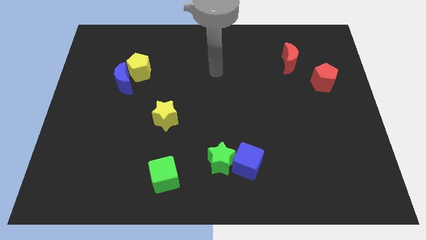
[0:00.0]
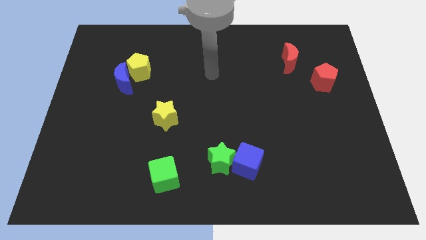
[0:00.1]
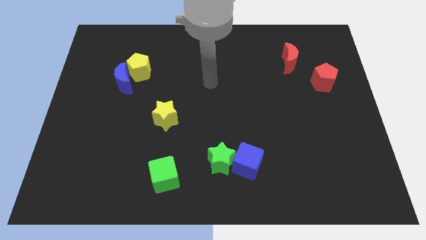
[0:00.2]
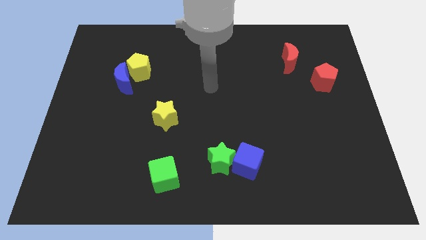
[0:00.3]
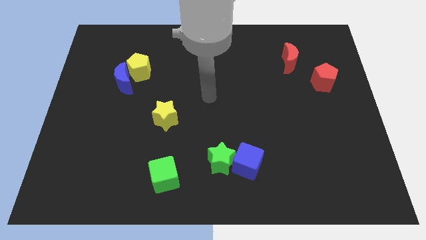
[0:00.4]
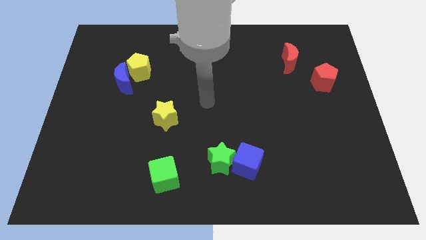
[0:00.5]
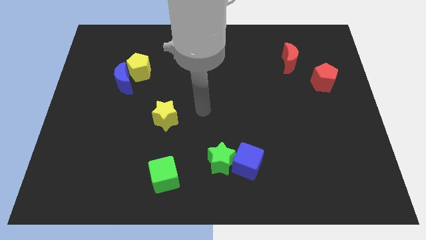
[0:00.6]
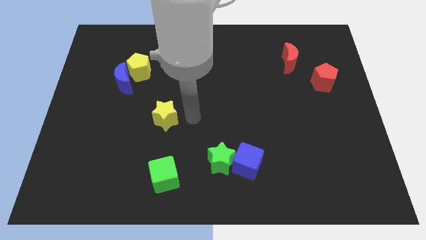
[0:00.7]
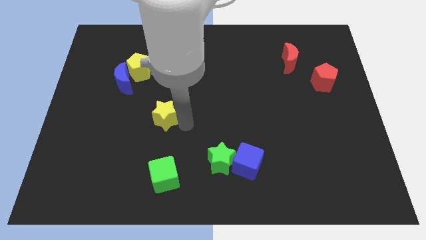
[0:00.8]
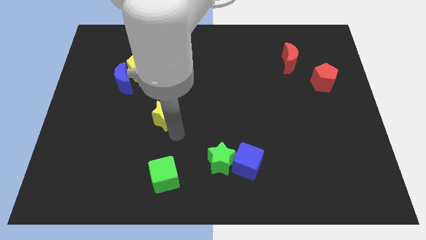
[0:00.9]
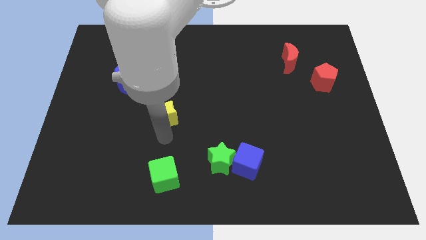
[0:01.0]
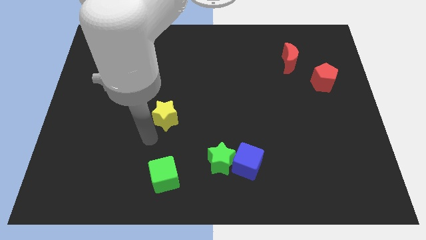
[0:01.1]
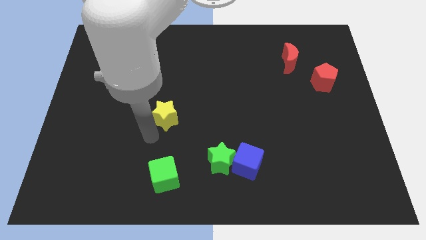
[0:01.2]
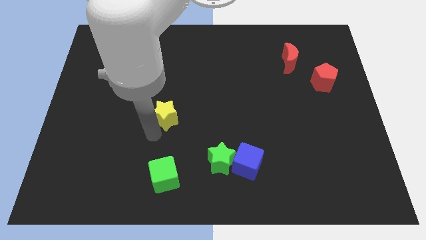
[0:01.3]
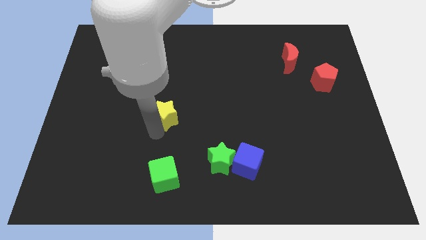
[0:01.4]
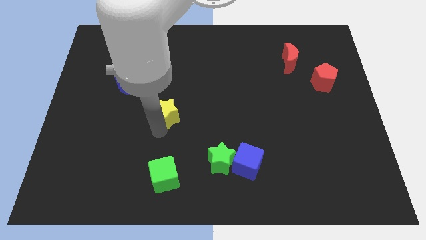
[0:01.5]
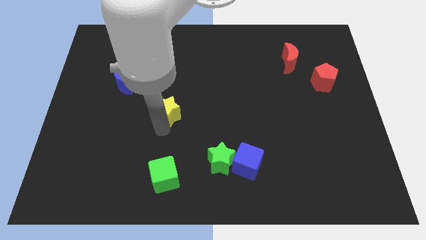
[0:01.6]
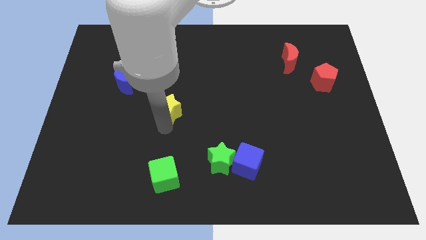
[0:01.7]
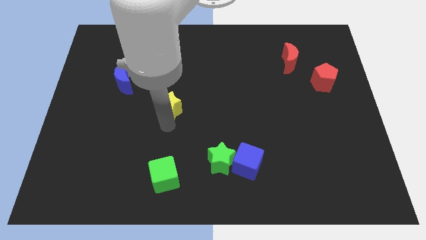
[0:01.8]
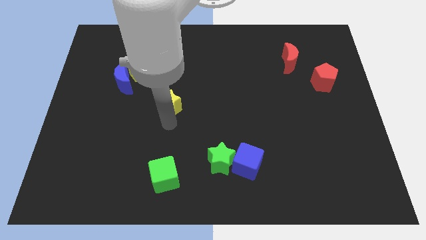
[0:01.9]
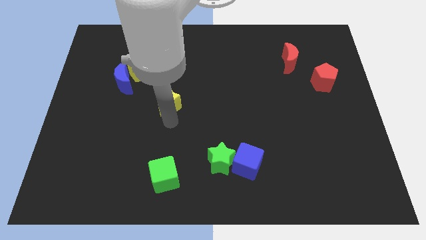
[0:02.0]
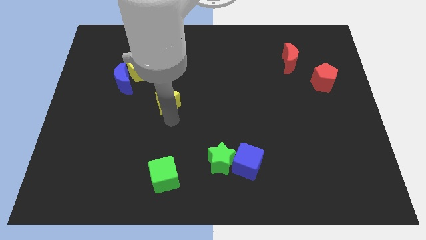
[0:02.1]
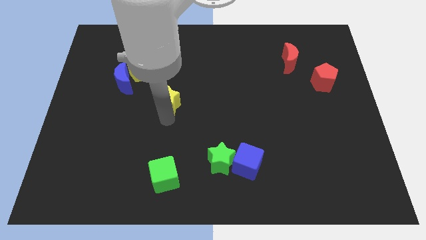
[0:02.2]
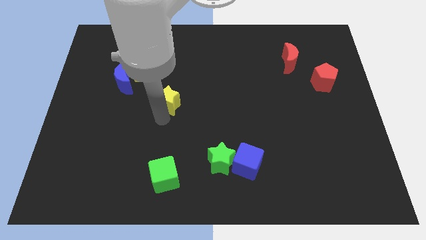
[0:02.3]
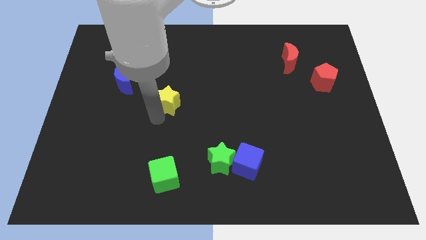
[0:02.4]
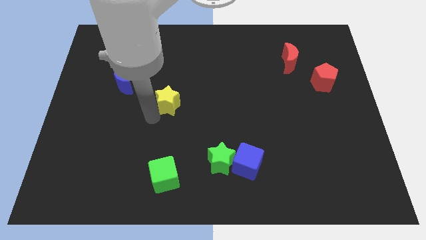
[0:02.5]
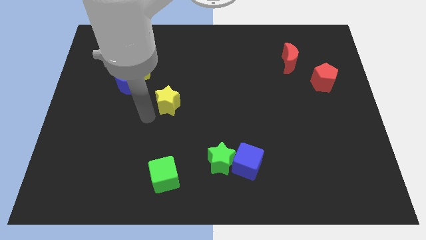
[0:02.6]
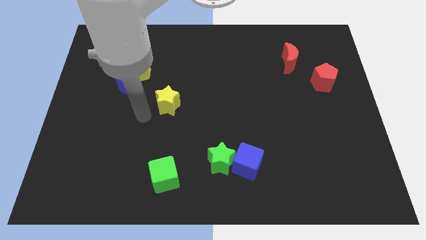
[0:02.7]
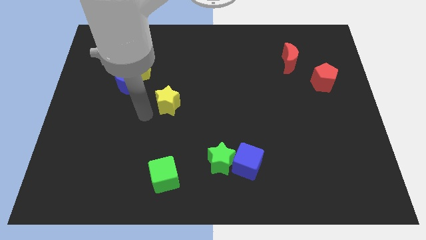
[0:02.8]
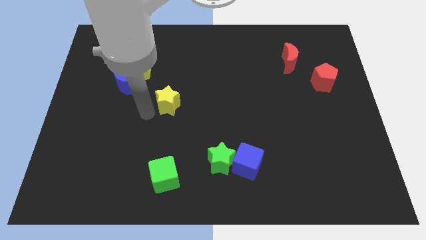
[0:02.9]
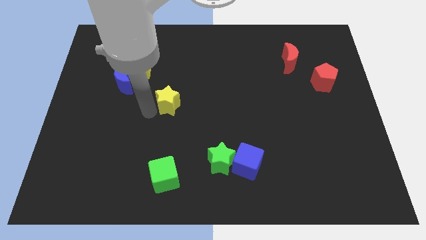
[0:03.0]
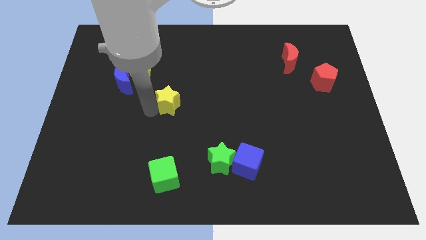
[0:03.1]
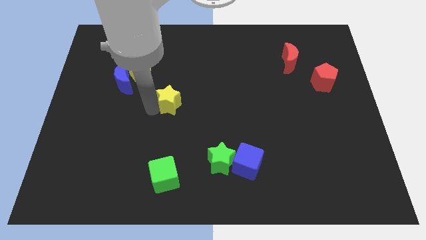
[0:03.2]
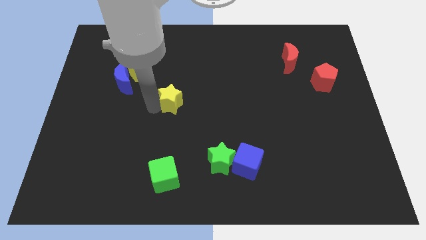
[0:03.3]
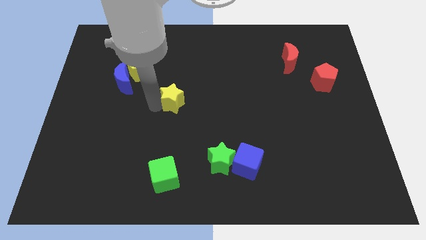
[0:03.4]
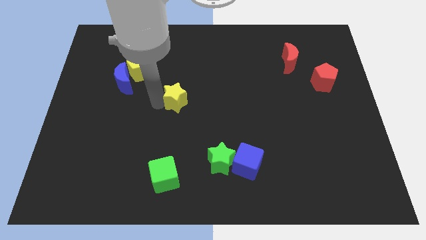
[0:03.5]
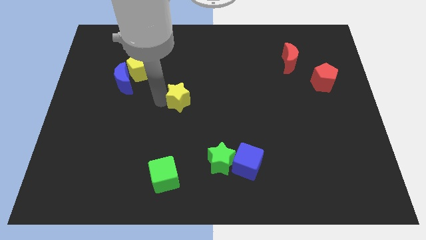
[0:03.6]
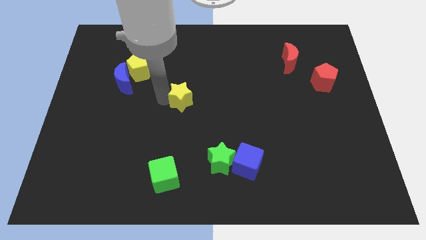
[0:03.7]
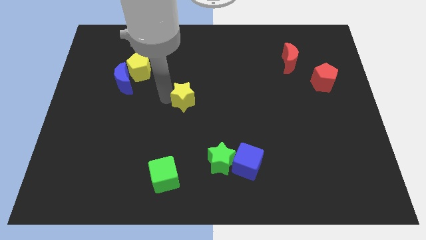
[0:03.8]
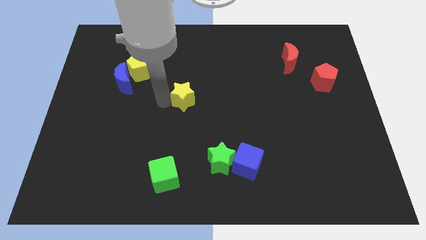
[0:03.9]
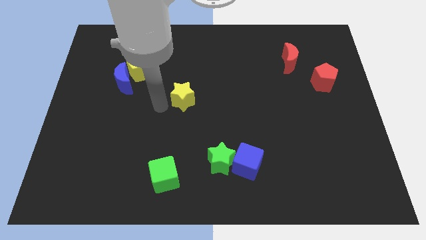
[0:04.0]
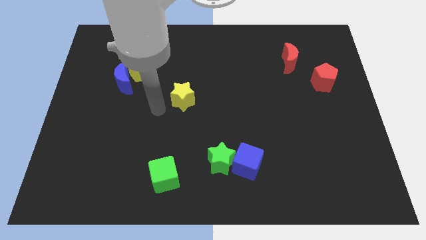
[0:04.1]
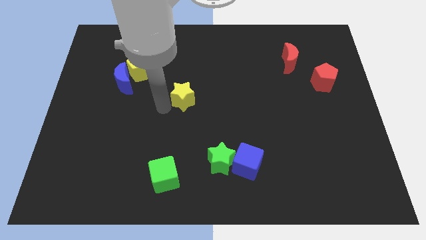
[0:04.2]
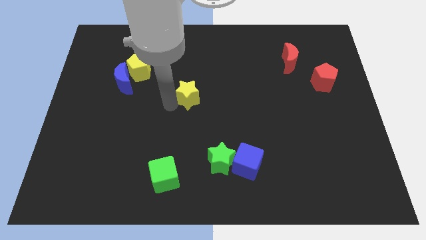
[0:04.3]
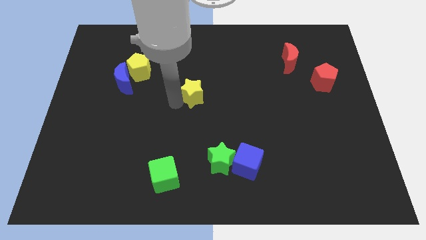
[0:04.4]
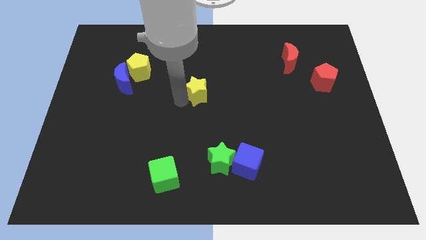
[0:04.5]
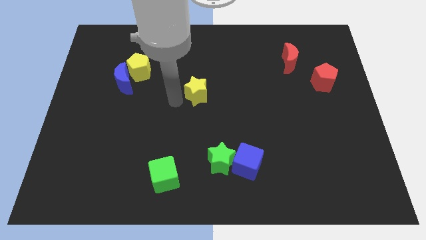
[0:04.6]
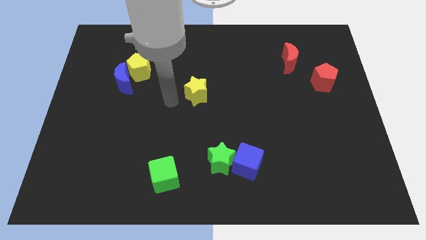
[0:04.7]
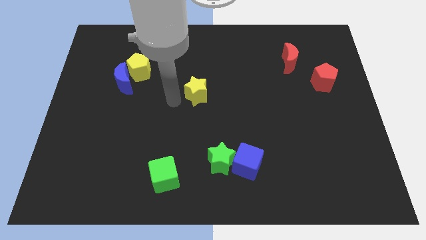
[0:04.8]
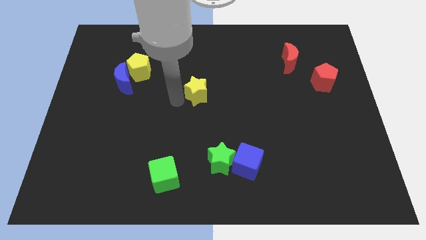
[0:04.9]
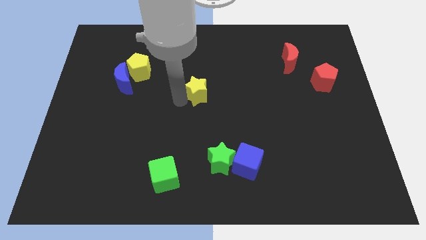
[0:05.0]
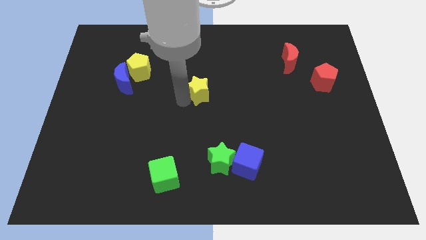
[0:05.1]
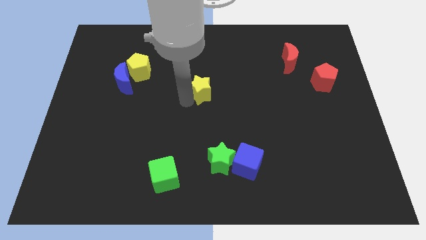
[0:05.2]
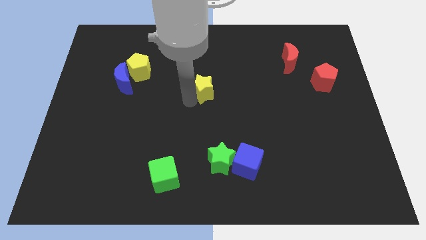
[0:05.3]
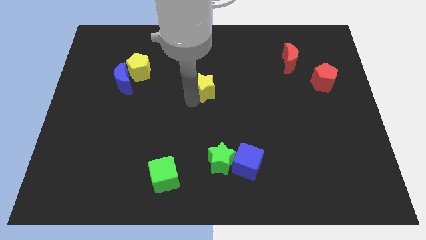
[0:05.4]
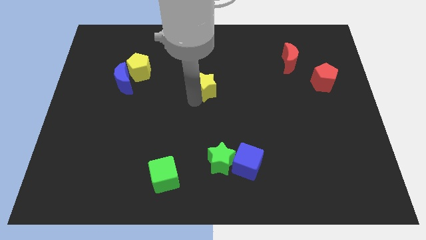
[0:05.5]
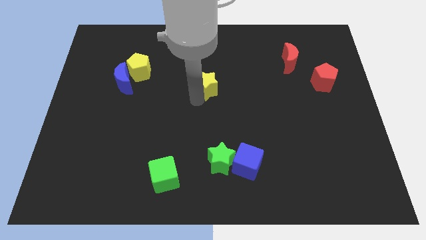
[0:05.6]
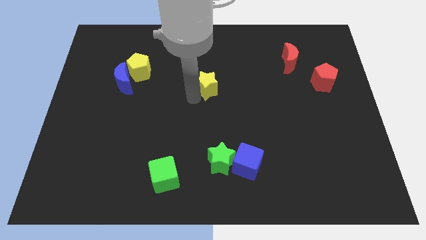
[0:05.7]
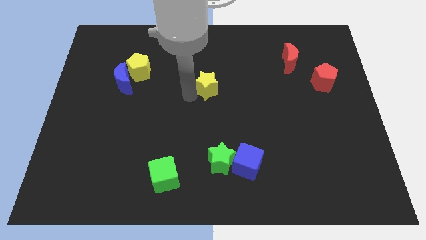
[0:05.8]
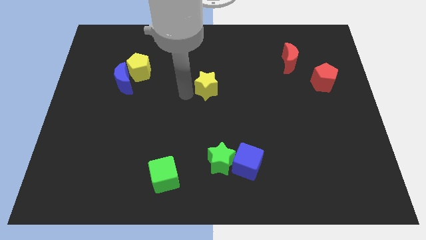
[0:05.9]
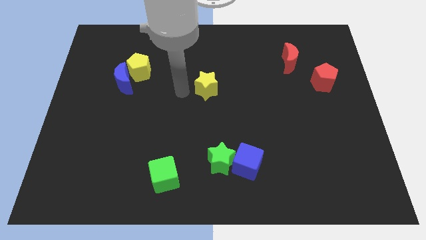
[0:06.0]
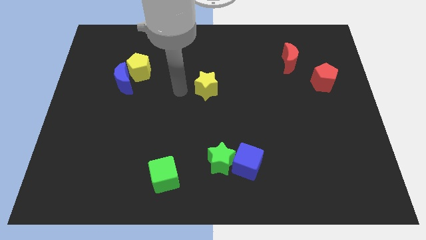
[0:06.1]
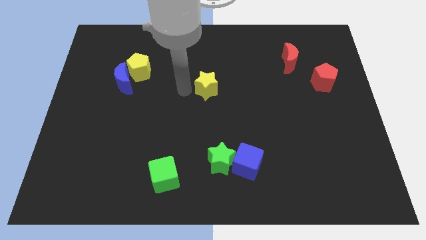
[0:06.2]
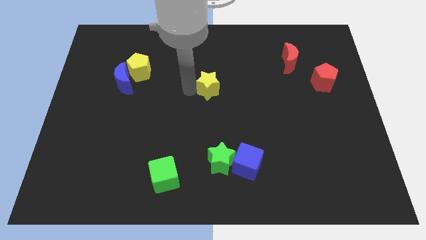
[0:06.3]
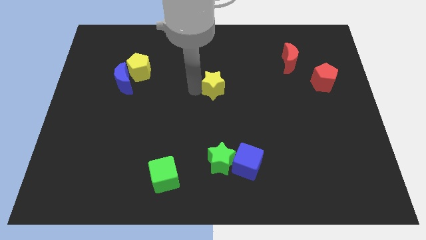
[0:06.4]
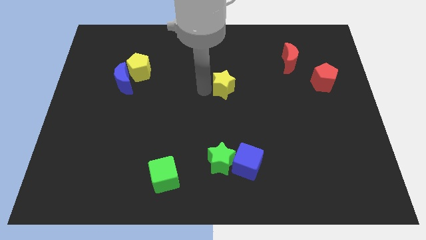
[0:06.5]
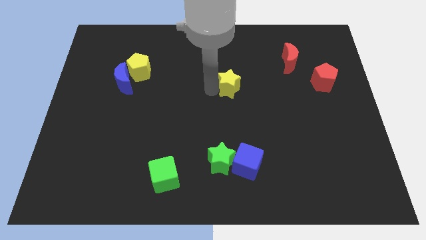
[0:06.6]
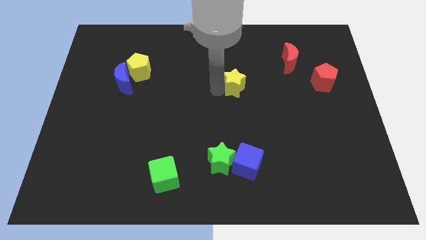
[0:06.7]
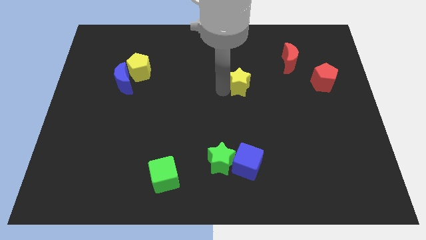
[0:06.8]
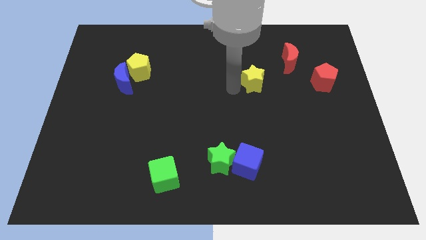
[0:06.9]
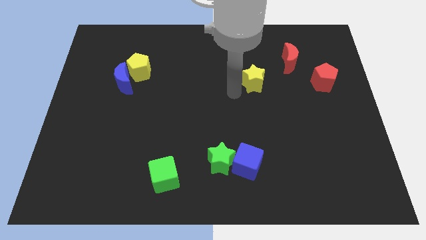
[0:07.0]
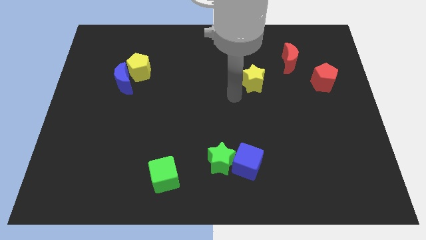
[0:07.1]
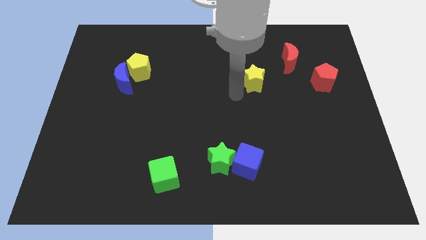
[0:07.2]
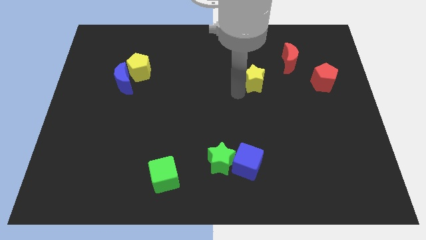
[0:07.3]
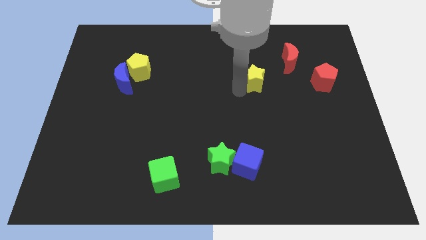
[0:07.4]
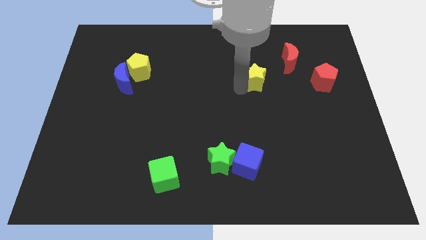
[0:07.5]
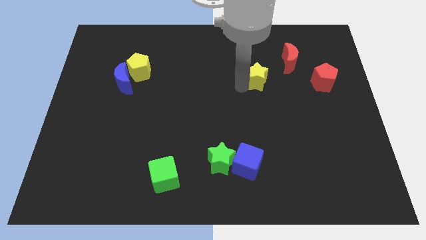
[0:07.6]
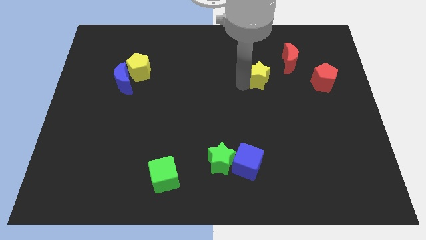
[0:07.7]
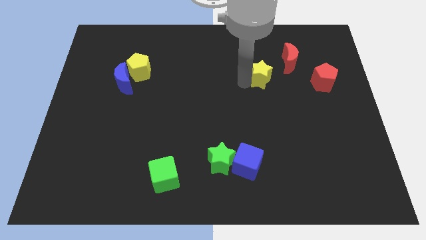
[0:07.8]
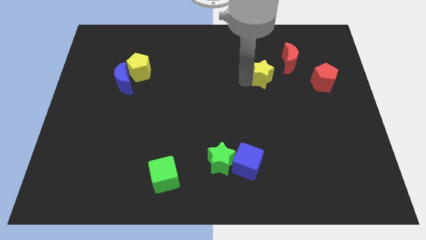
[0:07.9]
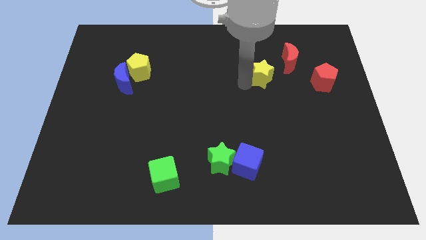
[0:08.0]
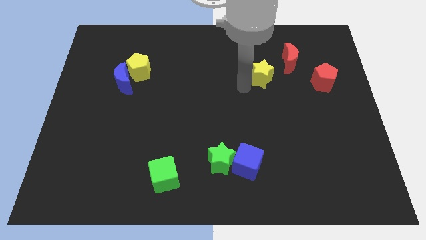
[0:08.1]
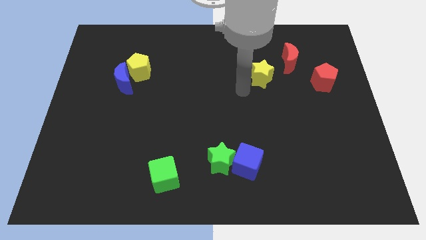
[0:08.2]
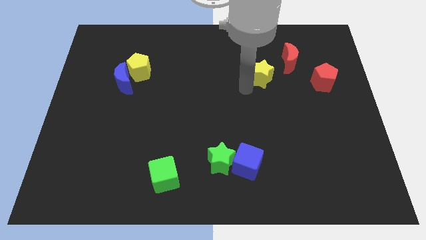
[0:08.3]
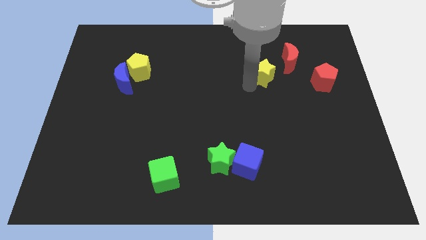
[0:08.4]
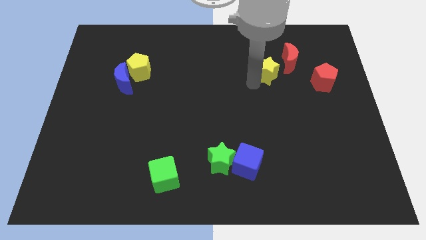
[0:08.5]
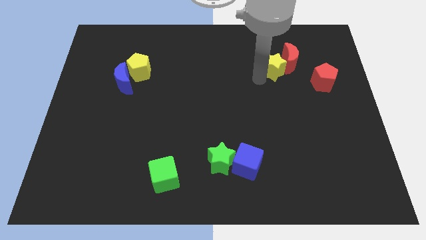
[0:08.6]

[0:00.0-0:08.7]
move the yellow star to the red moon
